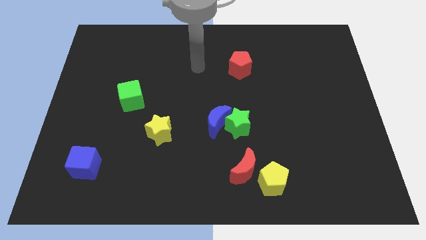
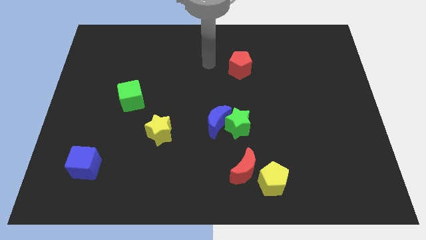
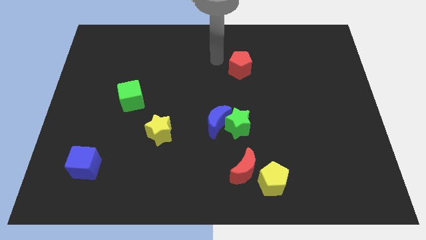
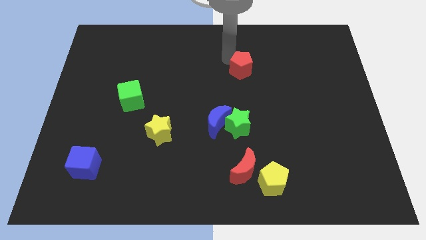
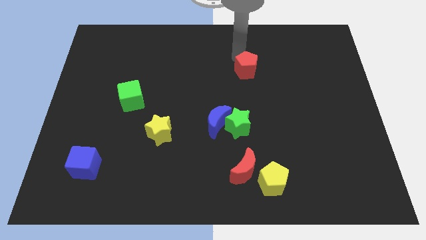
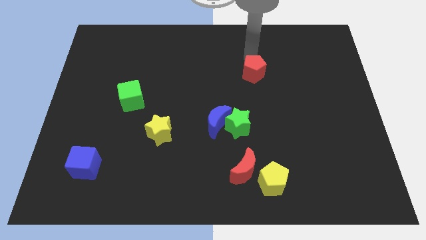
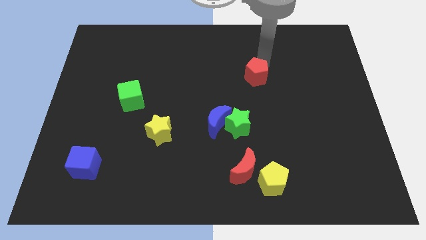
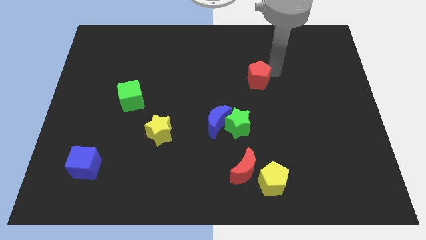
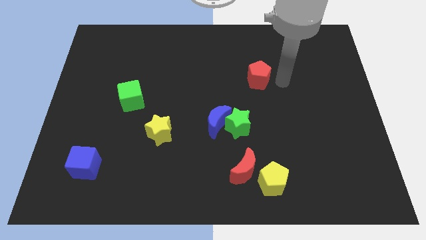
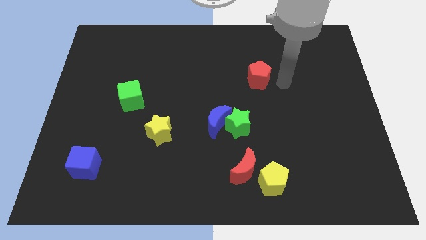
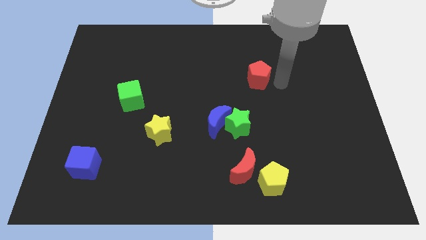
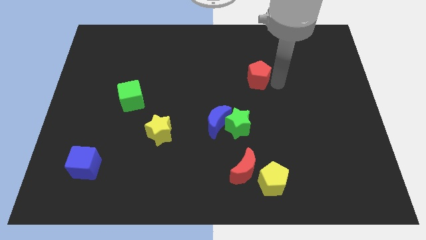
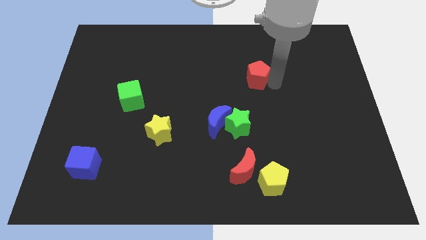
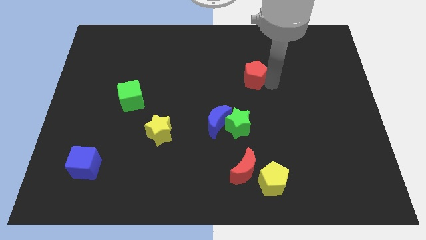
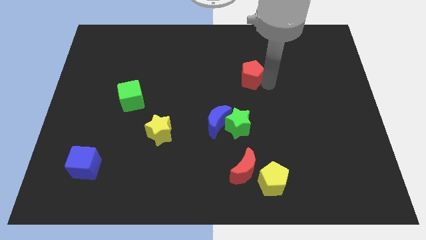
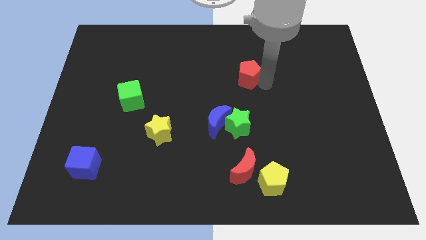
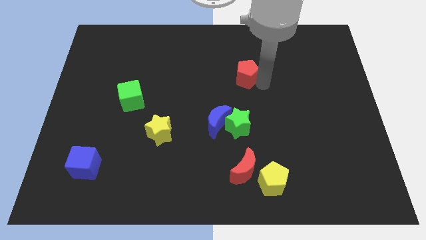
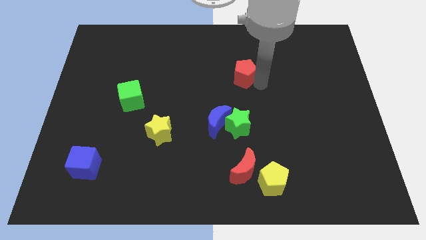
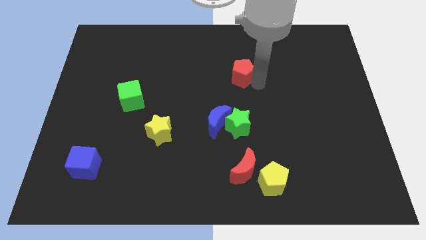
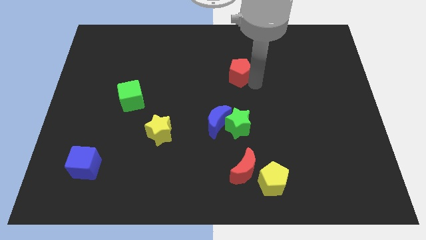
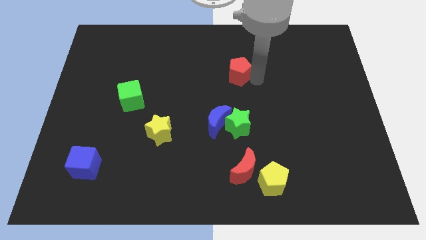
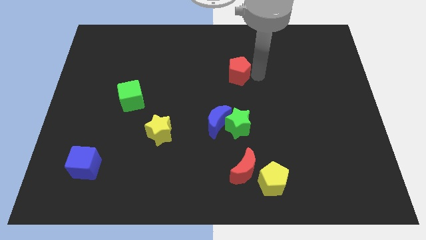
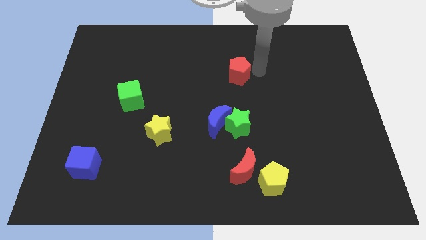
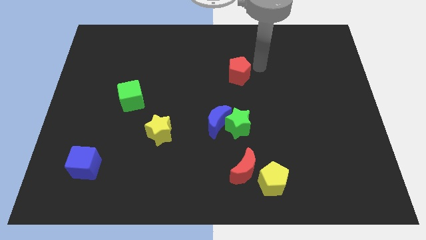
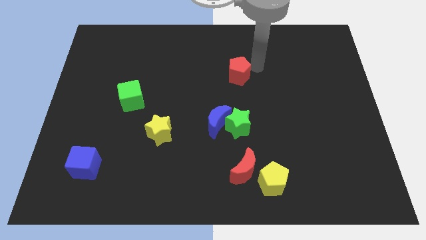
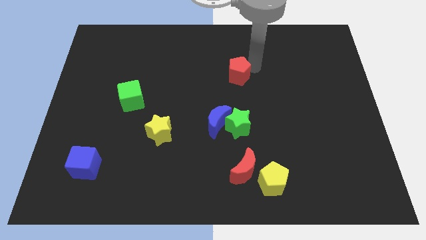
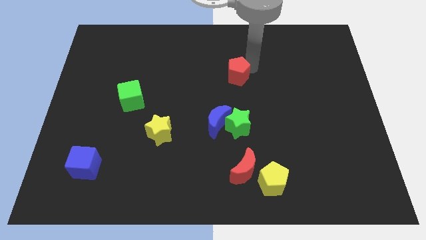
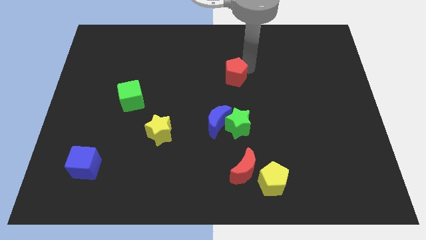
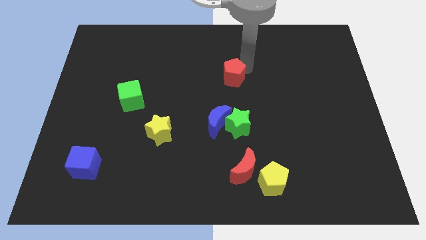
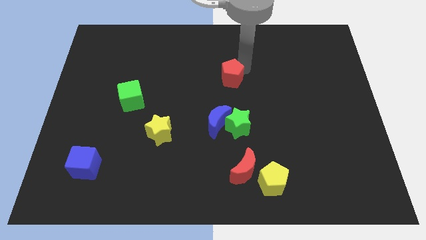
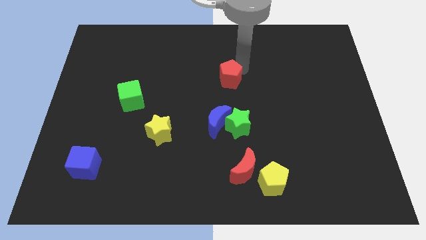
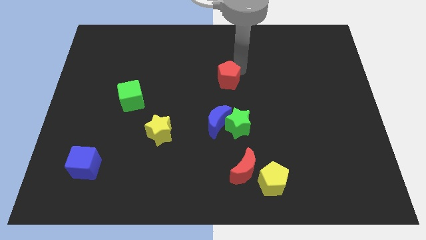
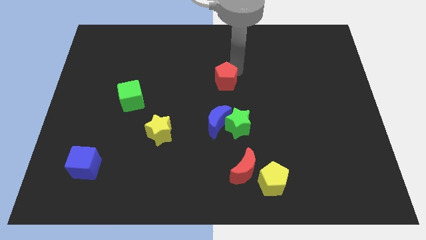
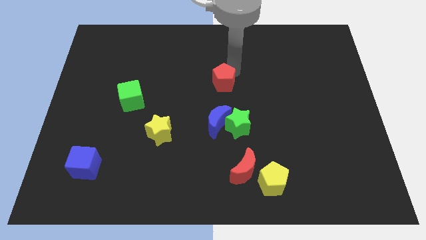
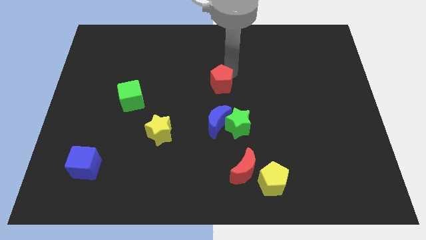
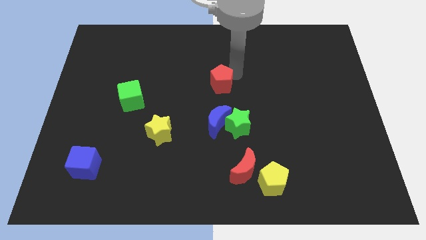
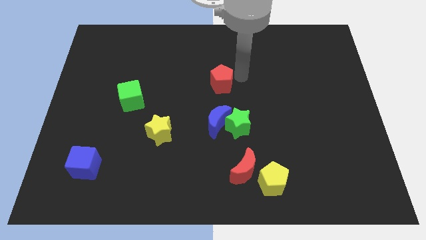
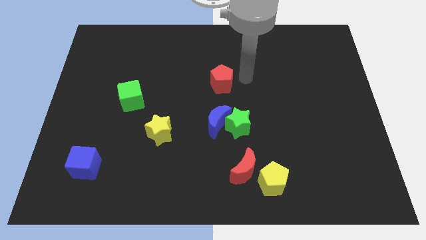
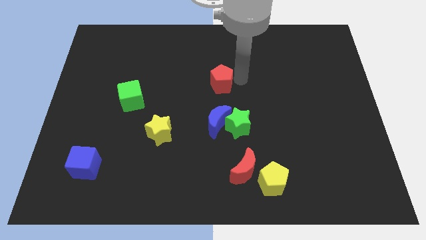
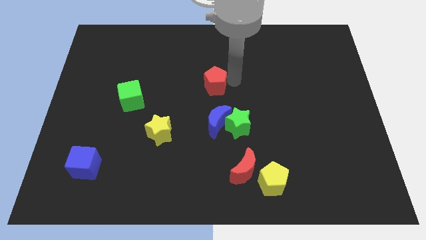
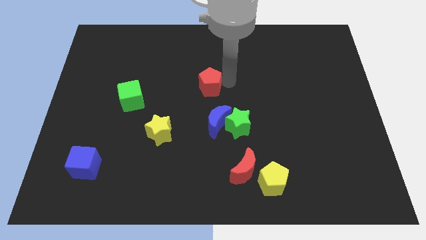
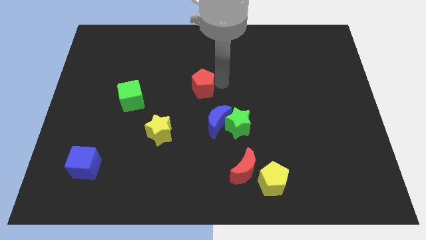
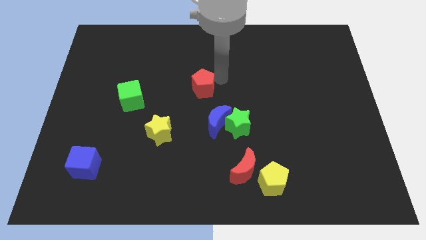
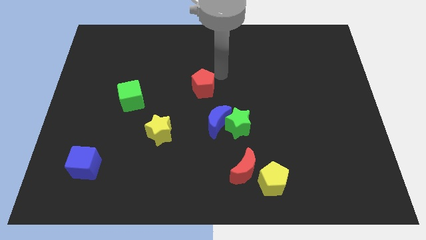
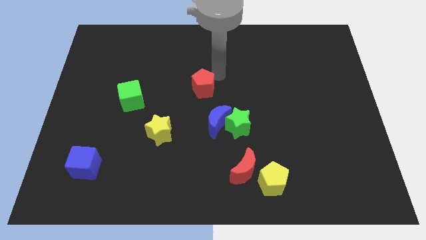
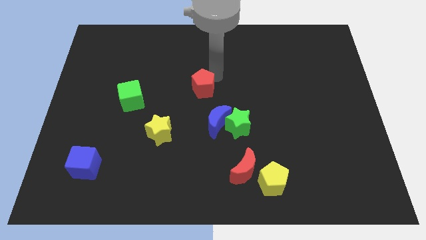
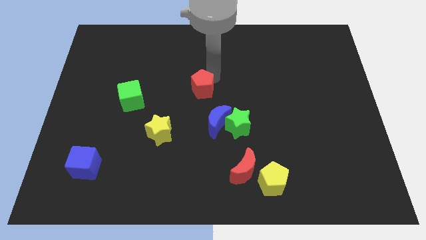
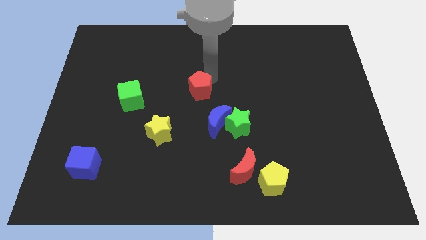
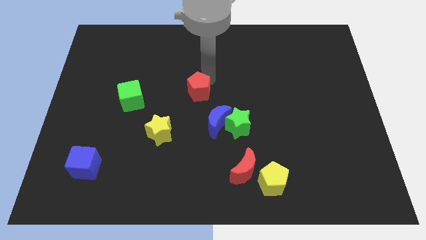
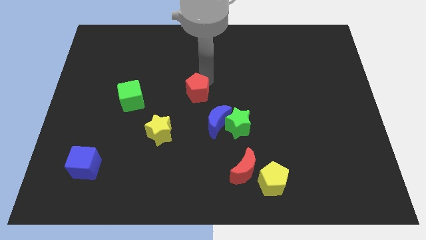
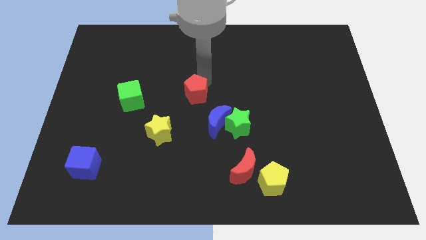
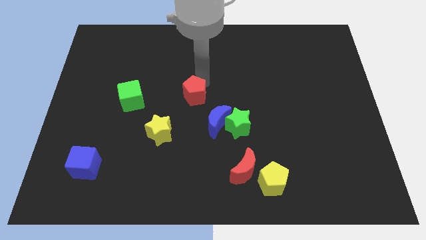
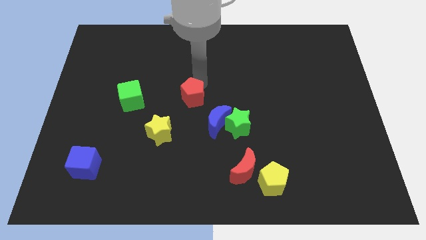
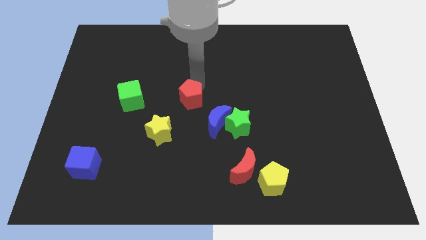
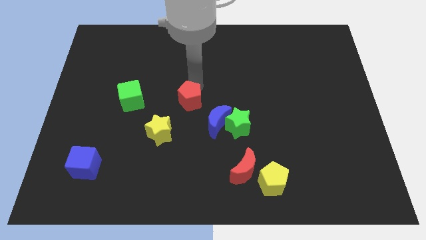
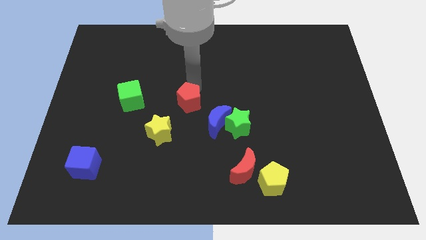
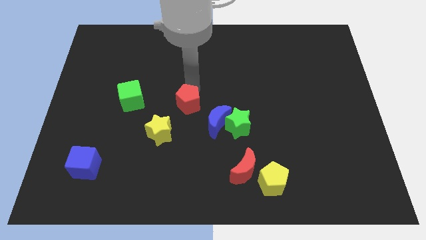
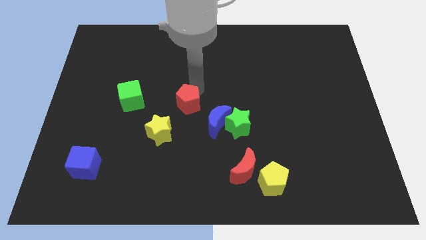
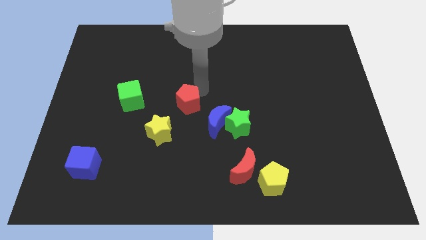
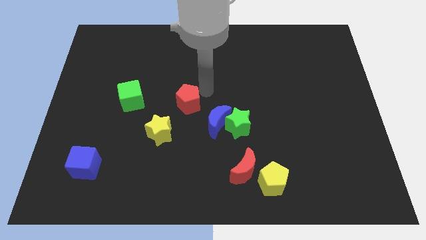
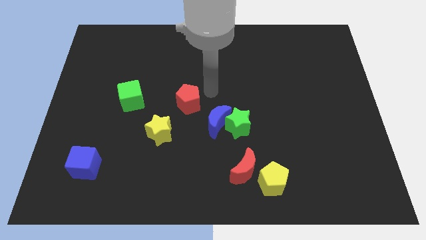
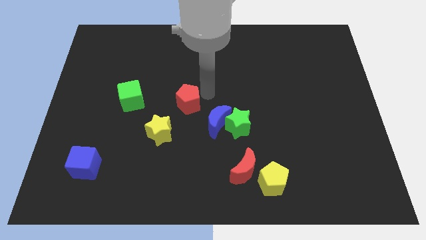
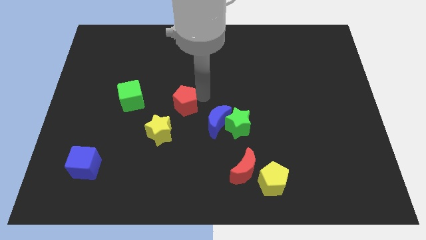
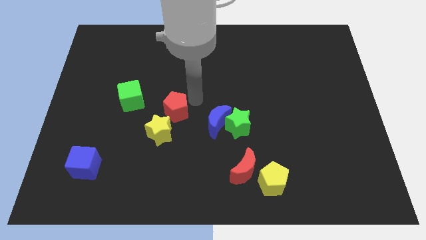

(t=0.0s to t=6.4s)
push the red pentagon downwards and to the left diagonally

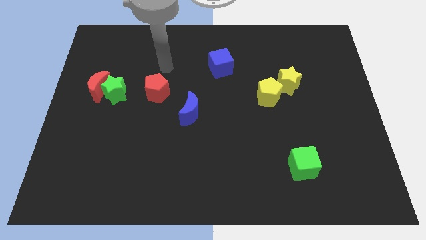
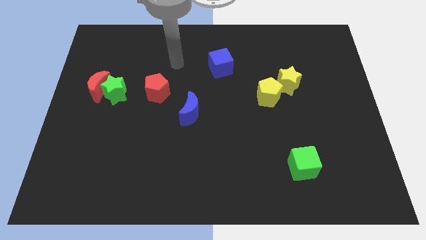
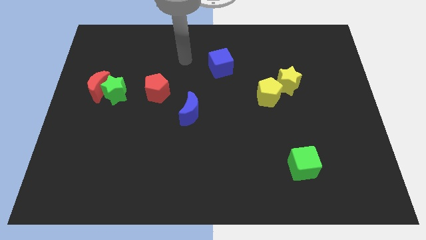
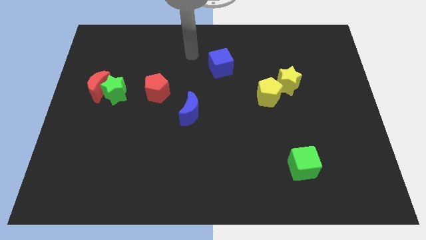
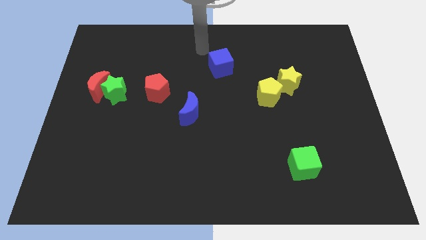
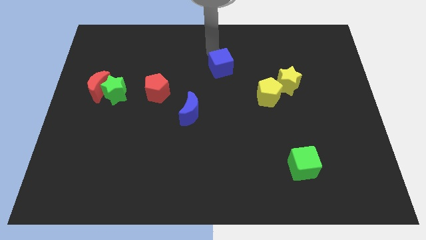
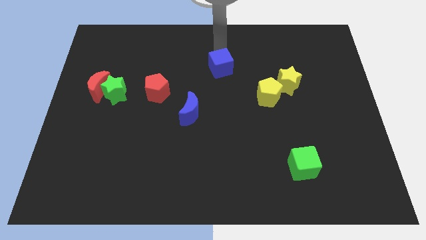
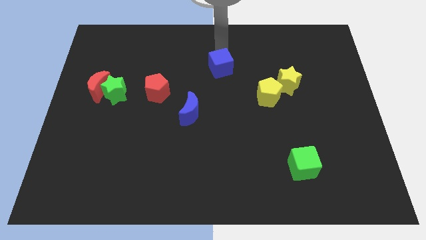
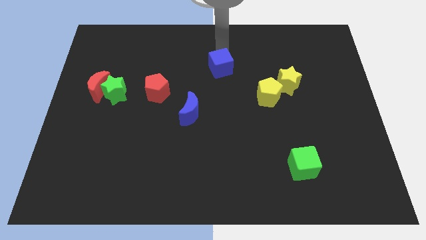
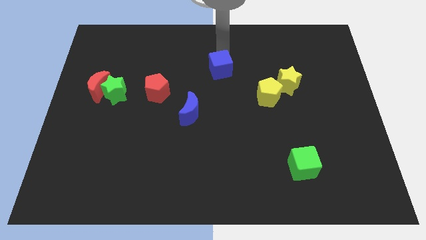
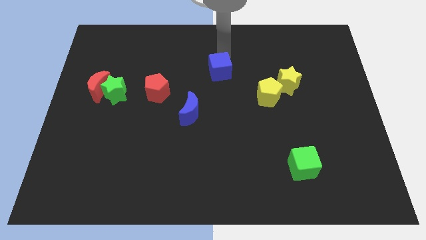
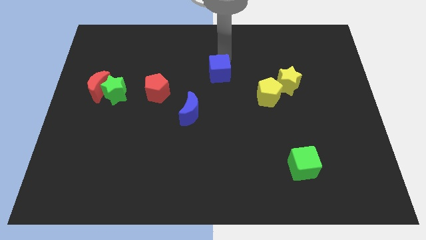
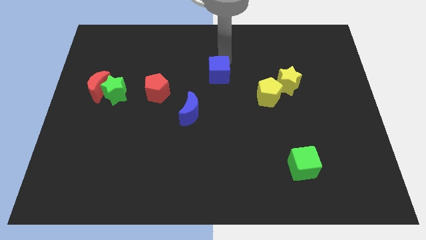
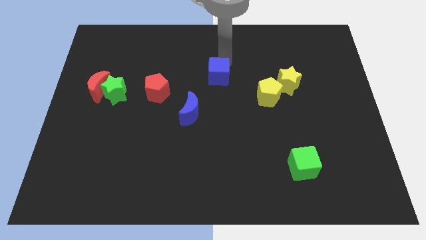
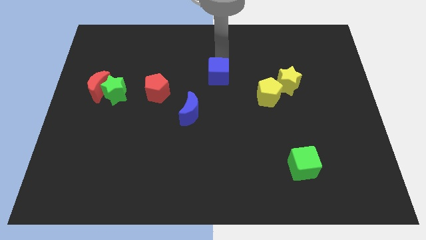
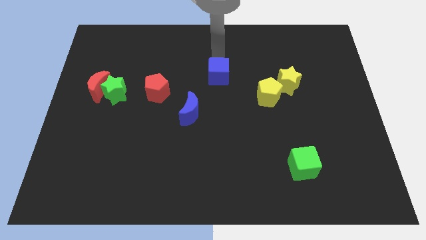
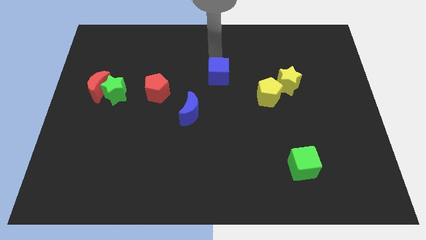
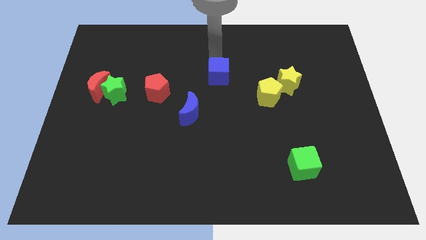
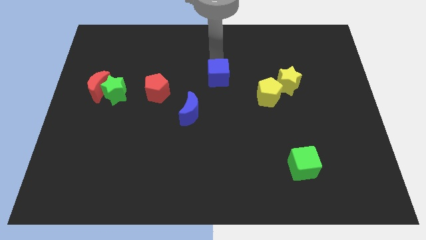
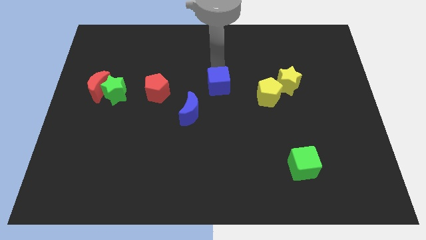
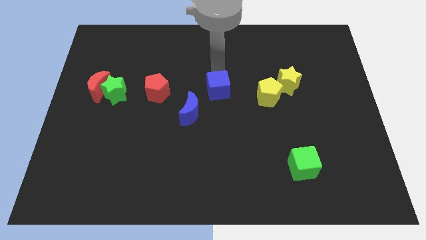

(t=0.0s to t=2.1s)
slide the blue cube a little downwards
